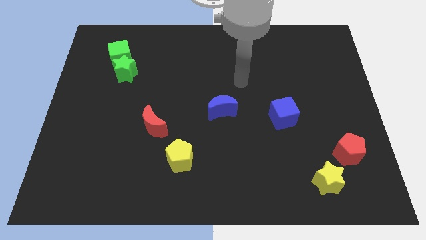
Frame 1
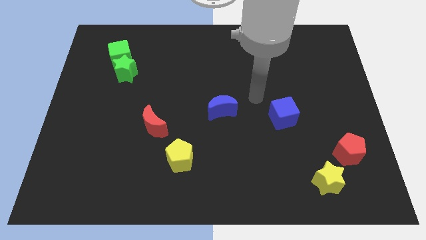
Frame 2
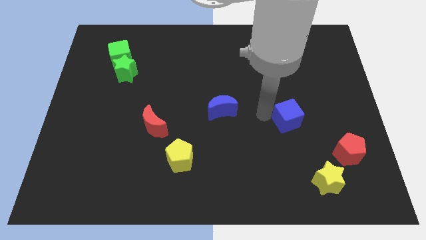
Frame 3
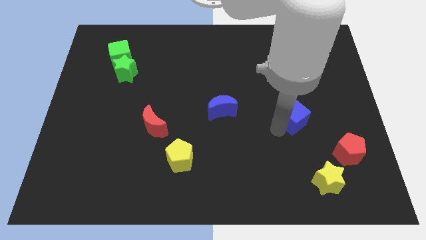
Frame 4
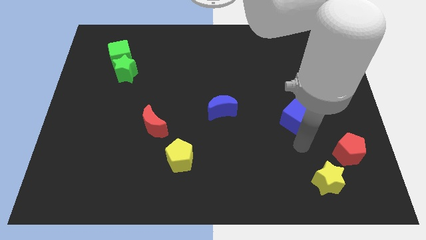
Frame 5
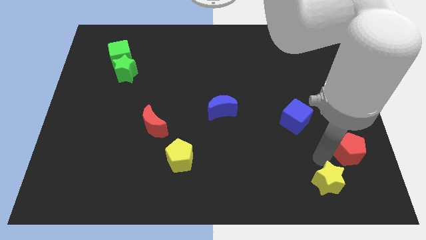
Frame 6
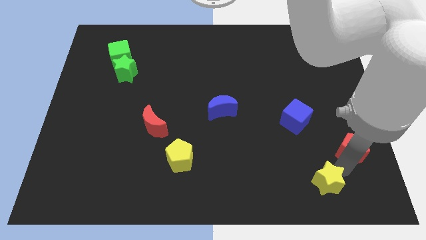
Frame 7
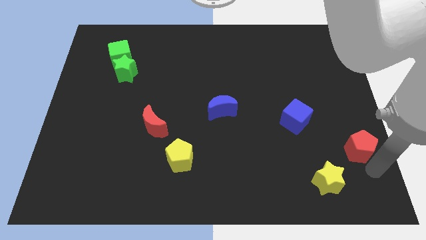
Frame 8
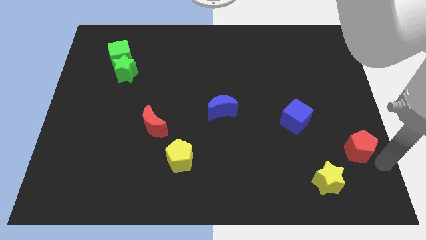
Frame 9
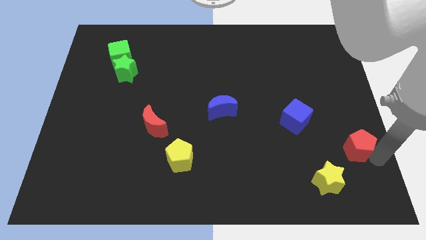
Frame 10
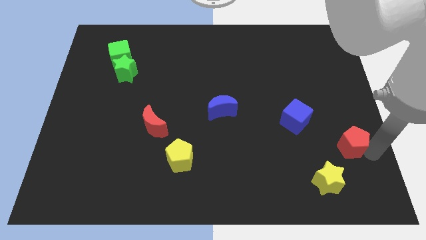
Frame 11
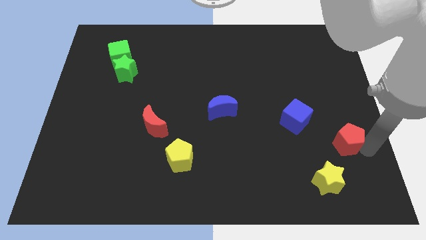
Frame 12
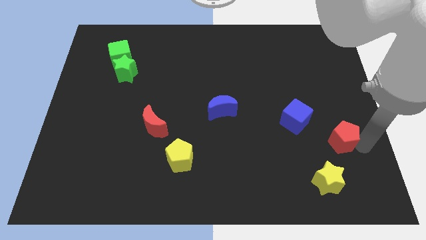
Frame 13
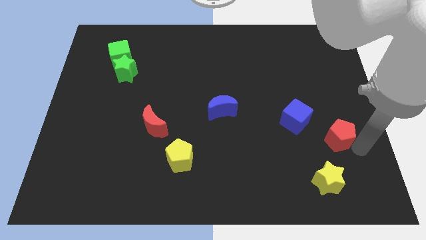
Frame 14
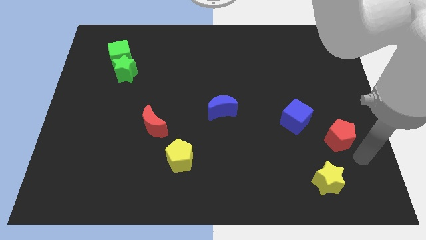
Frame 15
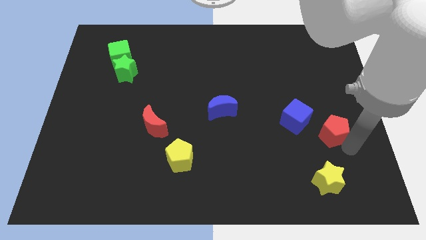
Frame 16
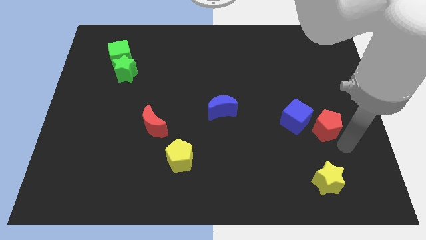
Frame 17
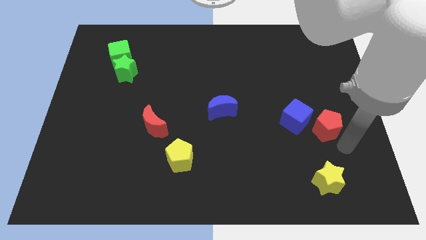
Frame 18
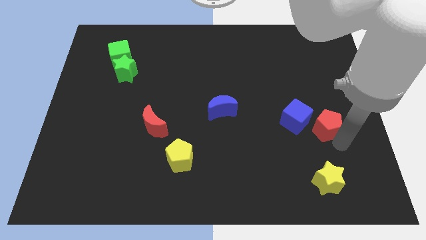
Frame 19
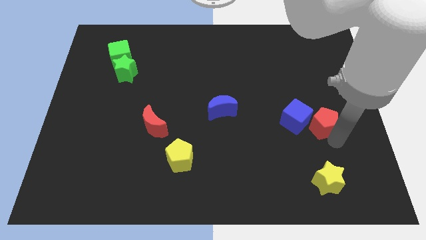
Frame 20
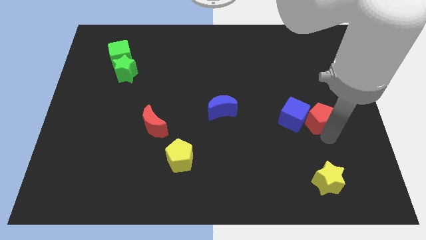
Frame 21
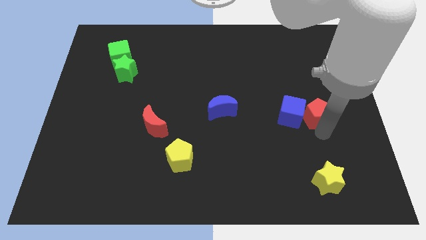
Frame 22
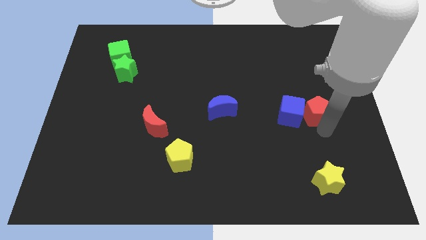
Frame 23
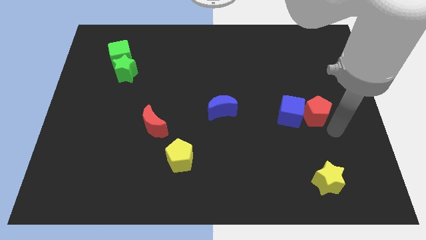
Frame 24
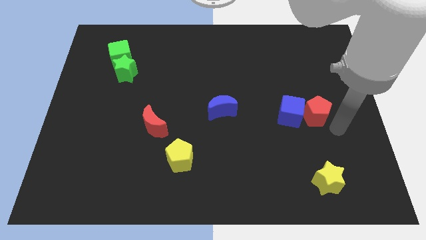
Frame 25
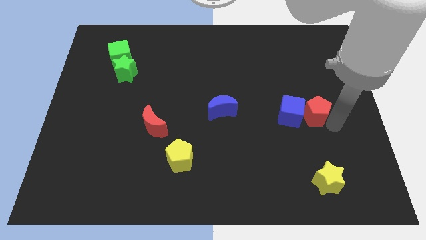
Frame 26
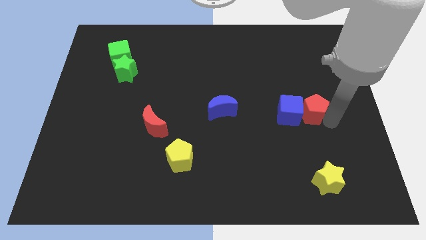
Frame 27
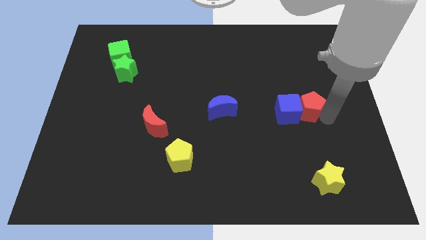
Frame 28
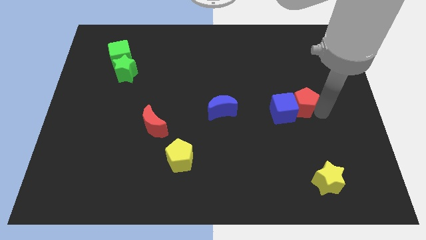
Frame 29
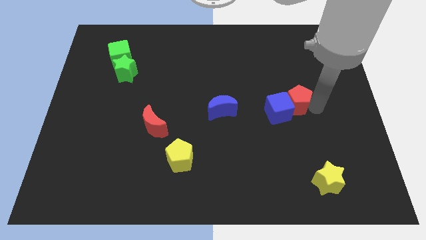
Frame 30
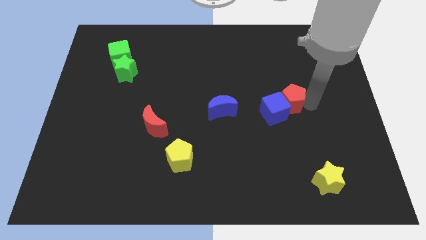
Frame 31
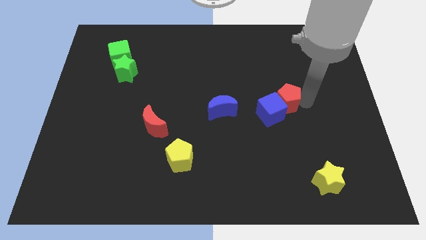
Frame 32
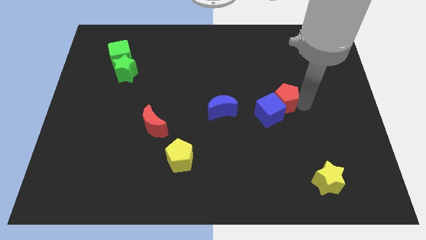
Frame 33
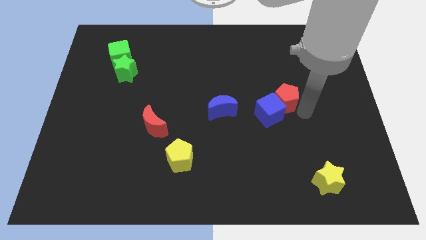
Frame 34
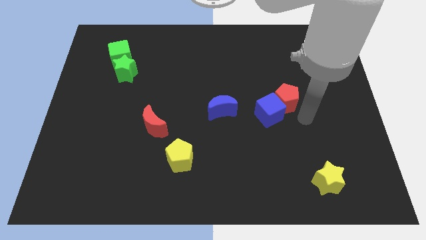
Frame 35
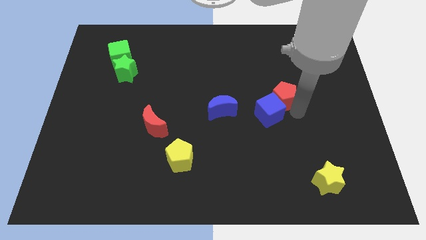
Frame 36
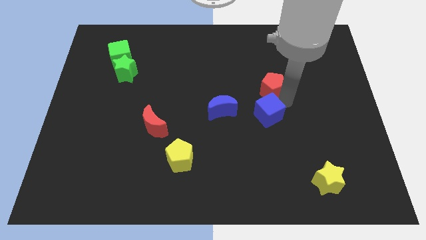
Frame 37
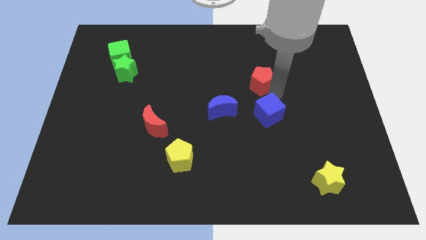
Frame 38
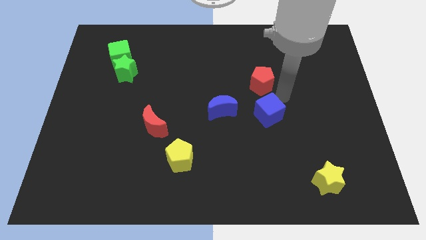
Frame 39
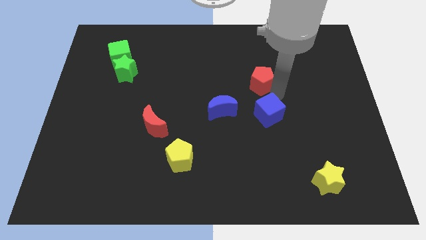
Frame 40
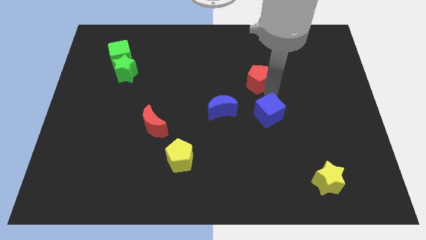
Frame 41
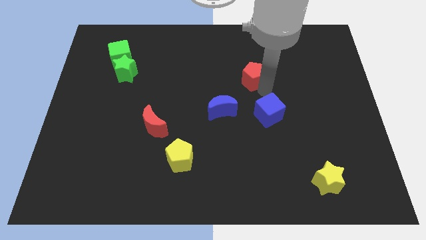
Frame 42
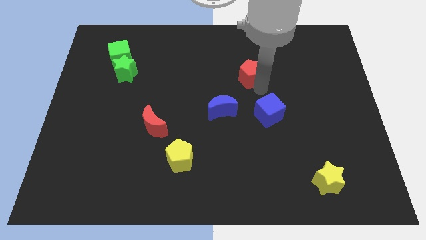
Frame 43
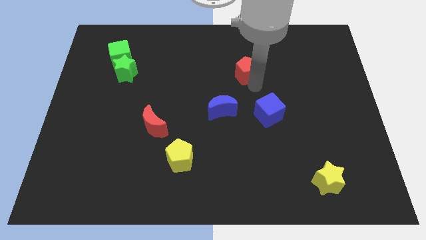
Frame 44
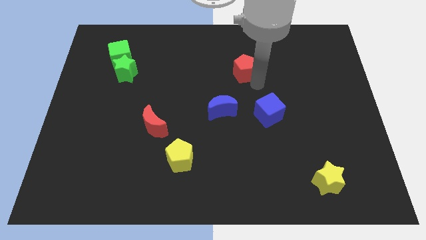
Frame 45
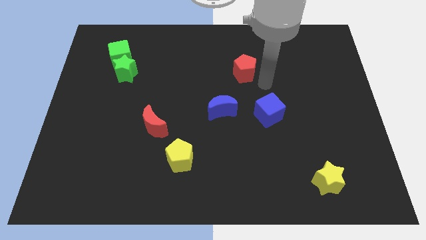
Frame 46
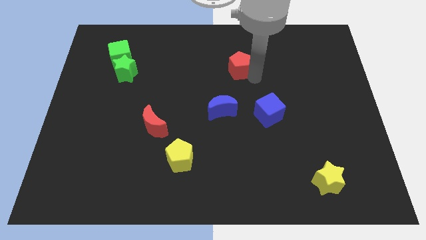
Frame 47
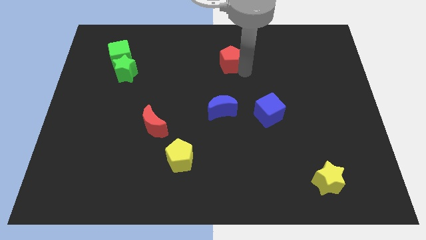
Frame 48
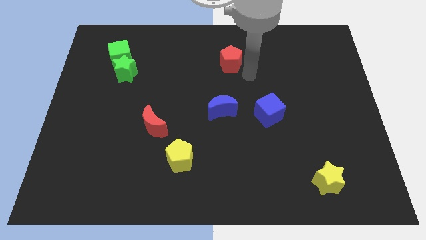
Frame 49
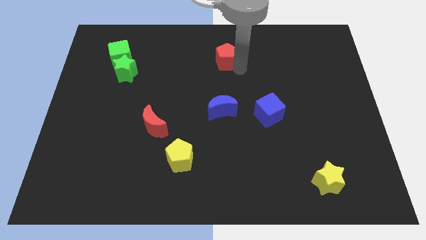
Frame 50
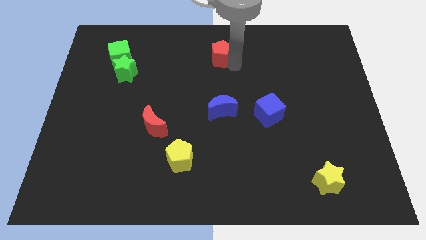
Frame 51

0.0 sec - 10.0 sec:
push the red pentagon to the top side

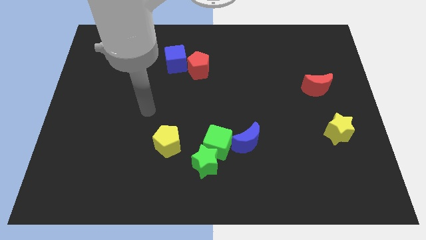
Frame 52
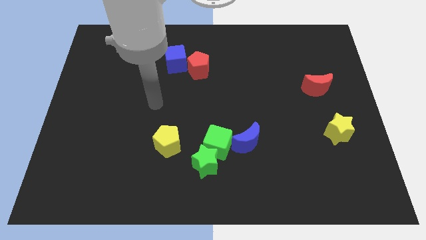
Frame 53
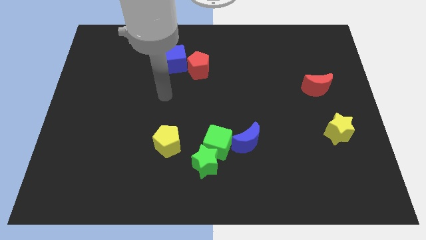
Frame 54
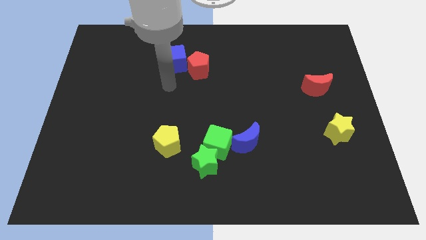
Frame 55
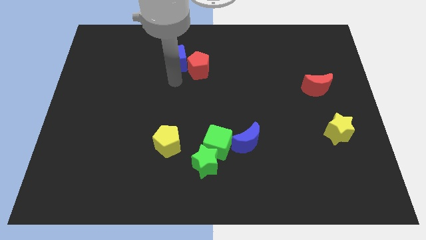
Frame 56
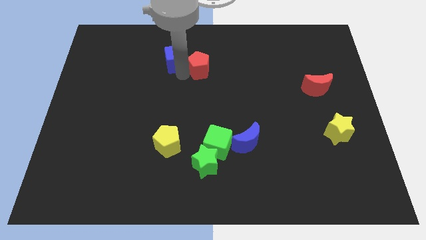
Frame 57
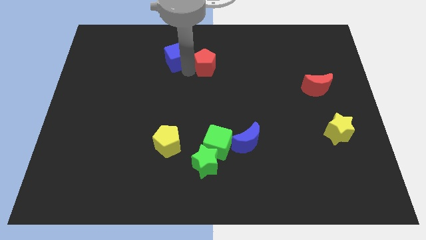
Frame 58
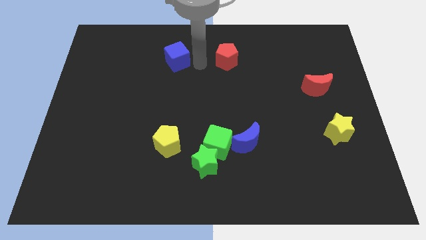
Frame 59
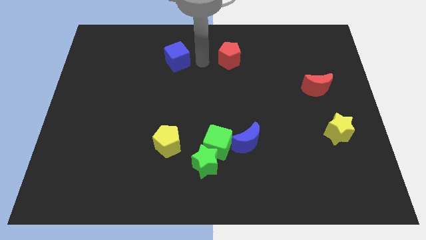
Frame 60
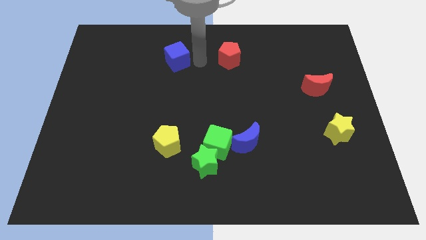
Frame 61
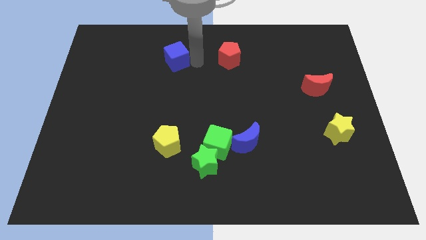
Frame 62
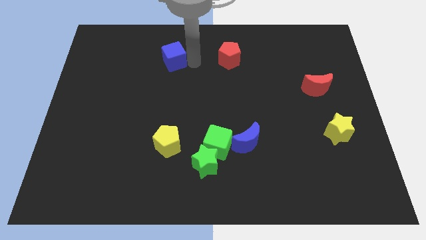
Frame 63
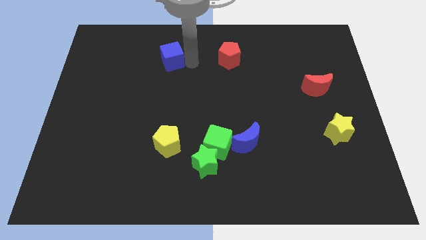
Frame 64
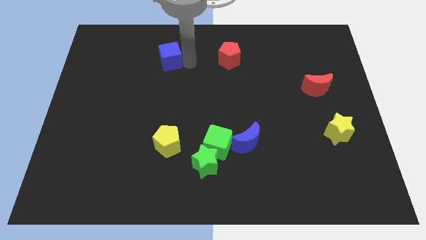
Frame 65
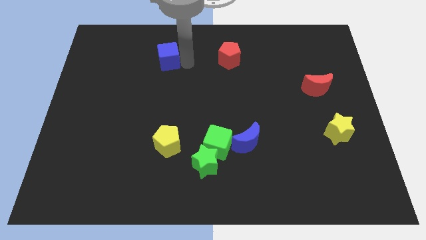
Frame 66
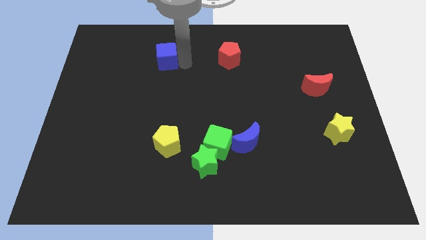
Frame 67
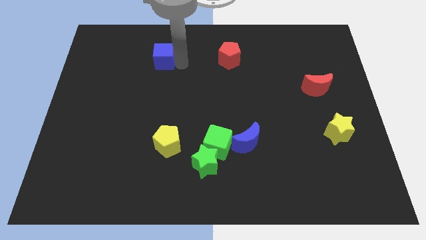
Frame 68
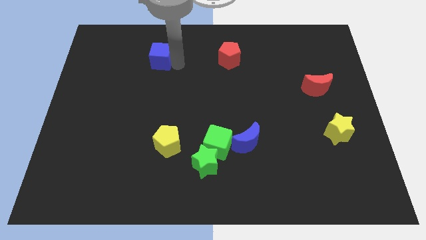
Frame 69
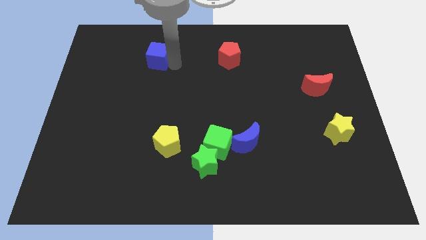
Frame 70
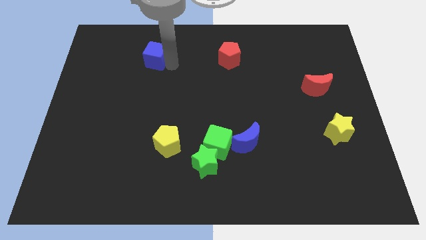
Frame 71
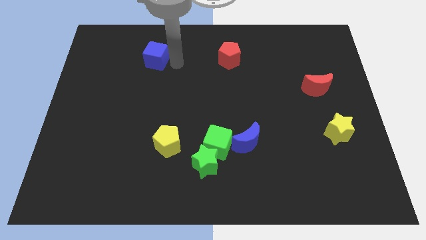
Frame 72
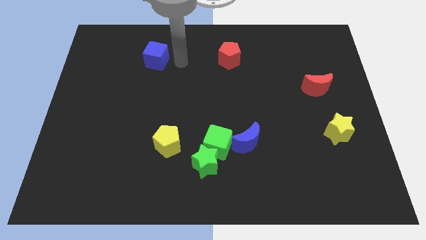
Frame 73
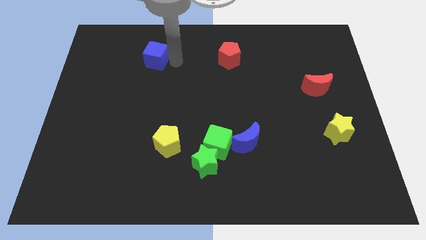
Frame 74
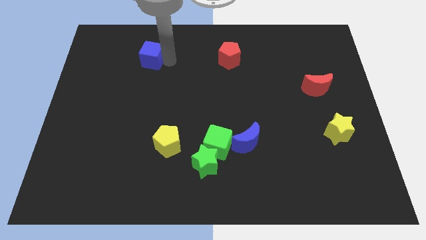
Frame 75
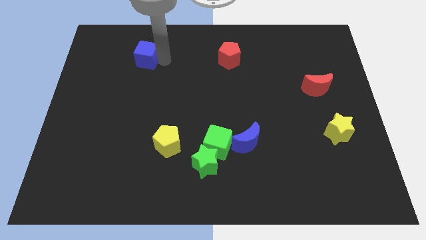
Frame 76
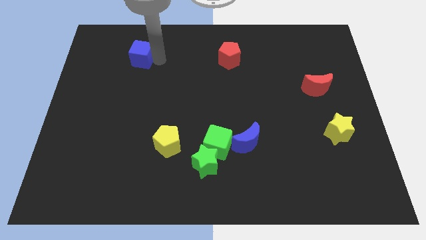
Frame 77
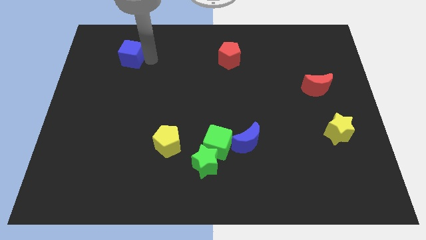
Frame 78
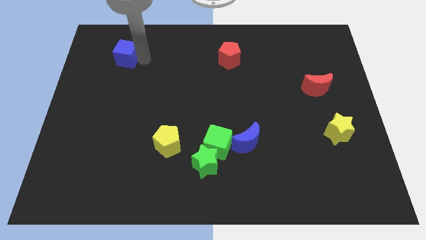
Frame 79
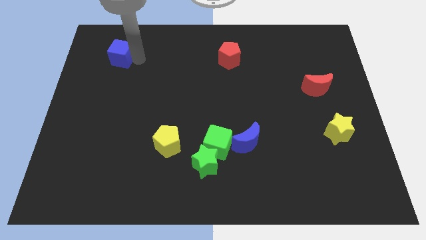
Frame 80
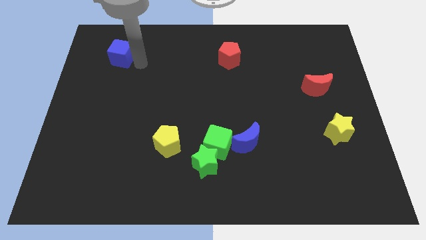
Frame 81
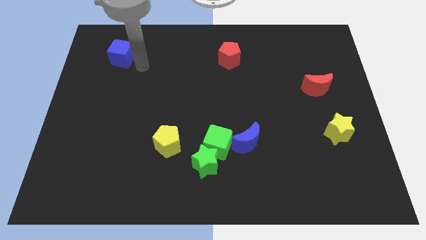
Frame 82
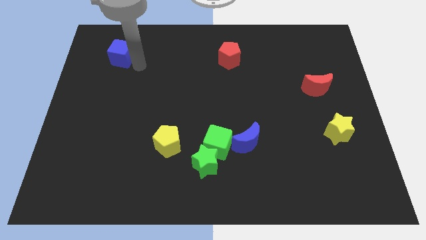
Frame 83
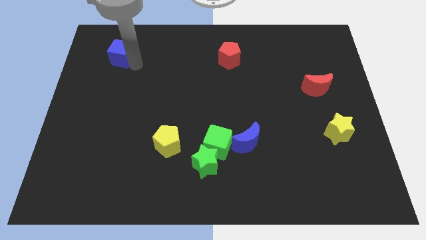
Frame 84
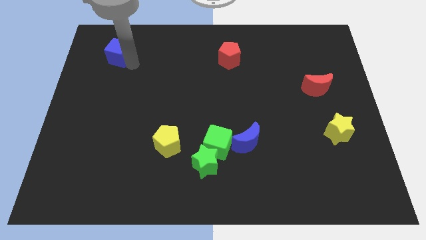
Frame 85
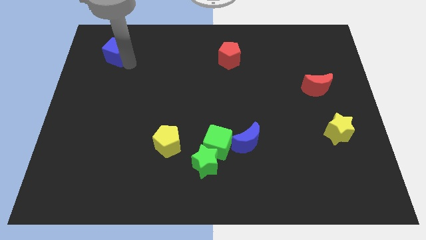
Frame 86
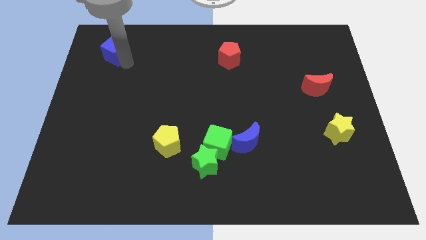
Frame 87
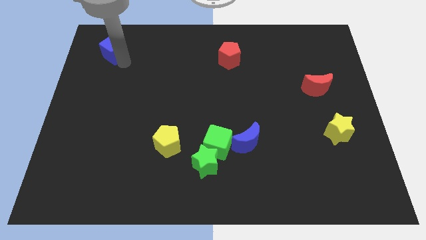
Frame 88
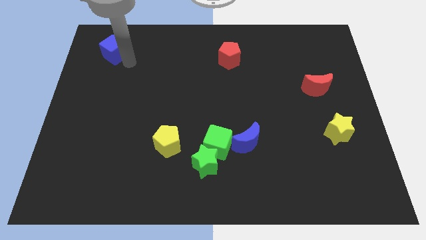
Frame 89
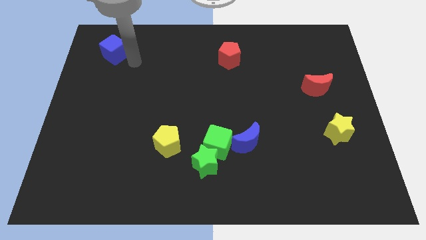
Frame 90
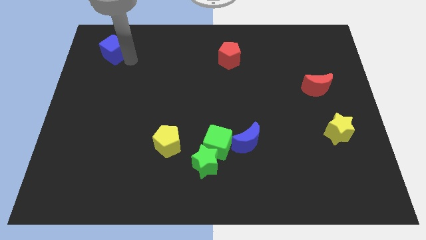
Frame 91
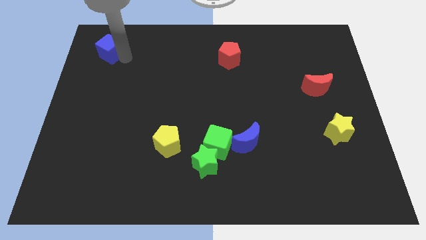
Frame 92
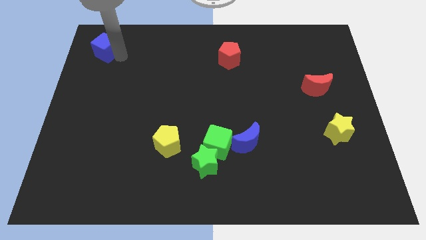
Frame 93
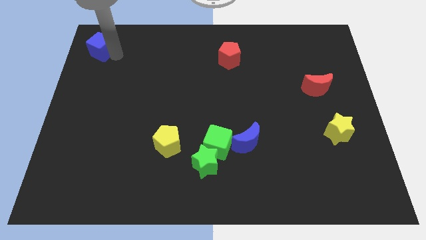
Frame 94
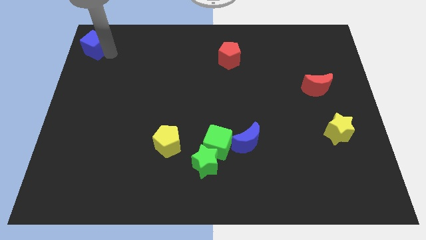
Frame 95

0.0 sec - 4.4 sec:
put the blue cube to the top left corner
